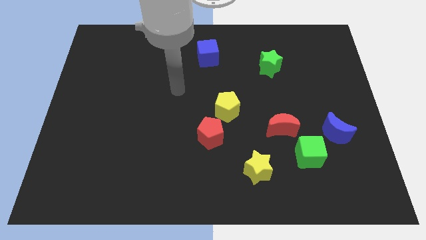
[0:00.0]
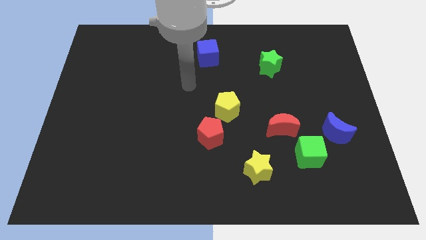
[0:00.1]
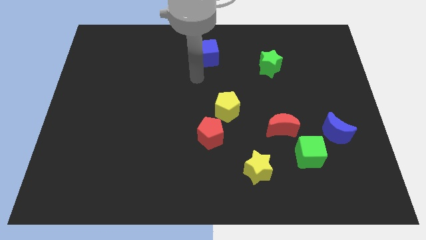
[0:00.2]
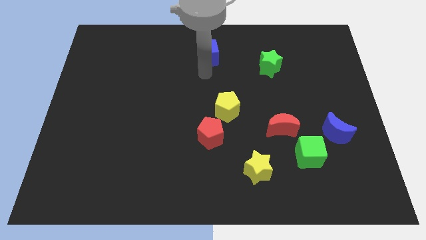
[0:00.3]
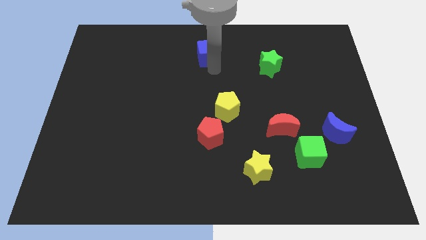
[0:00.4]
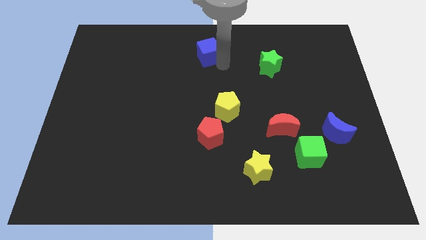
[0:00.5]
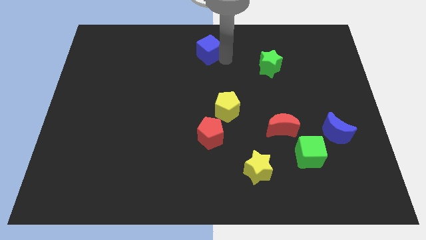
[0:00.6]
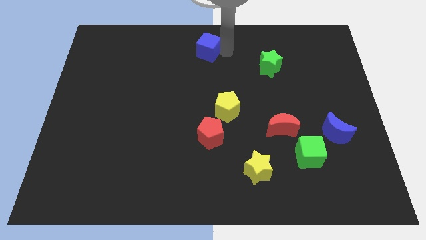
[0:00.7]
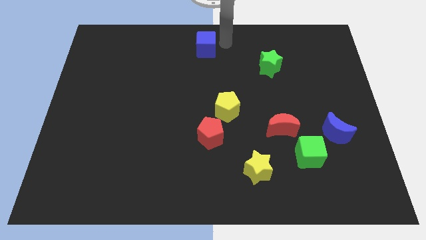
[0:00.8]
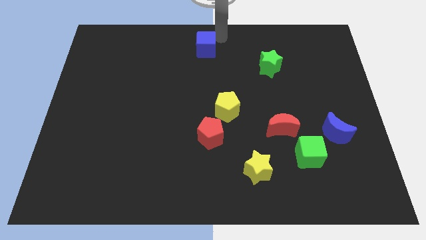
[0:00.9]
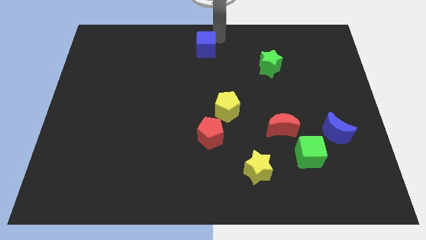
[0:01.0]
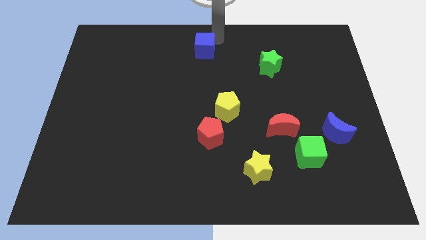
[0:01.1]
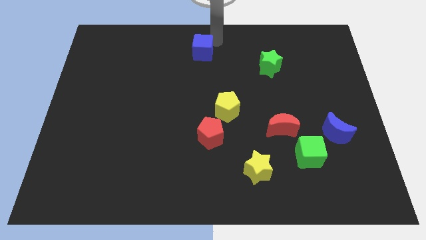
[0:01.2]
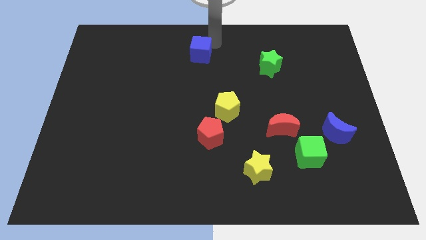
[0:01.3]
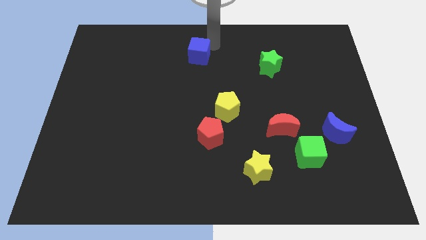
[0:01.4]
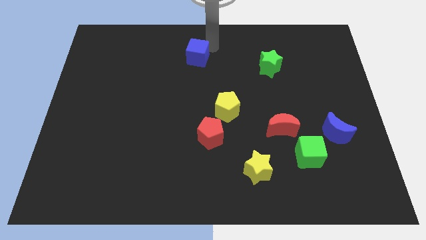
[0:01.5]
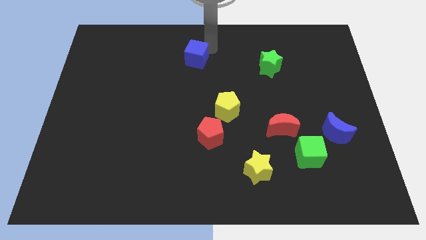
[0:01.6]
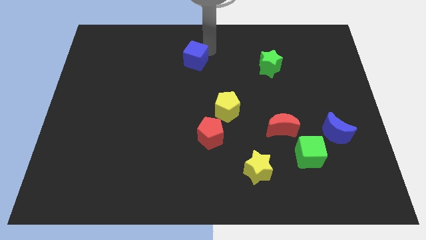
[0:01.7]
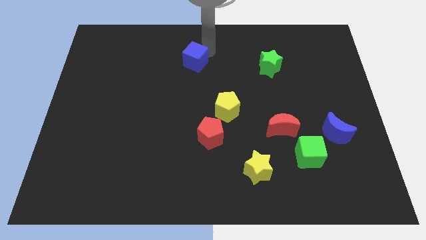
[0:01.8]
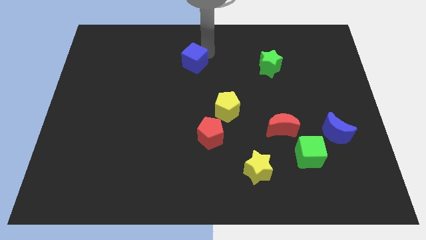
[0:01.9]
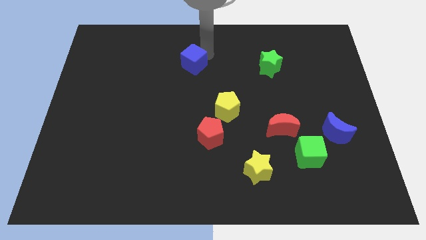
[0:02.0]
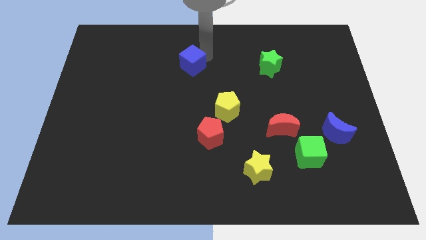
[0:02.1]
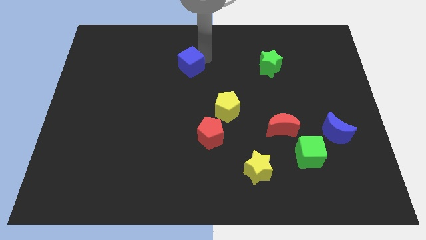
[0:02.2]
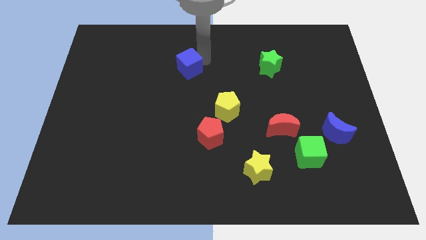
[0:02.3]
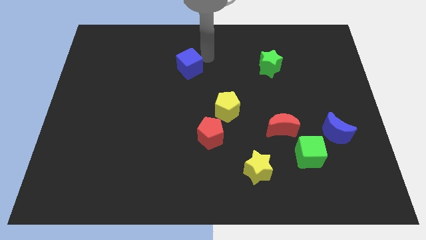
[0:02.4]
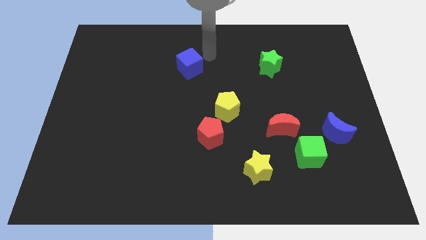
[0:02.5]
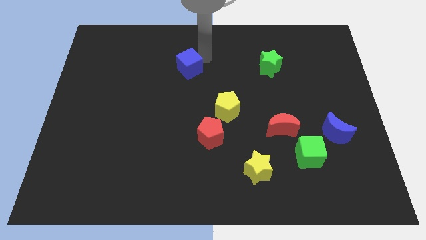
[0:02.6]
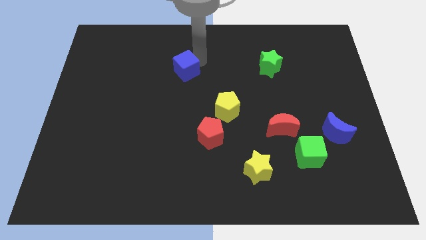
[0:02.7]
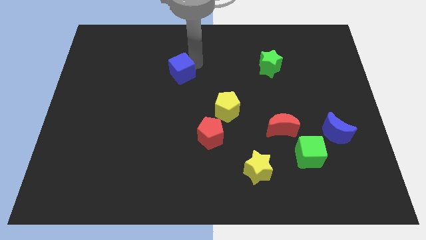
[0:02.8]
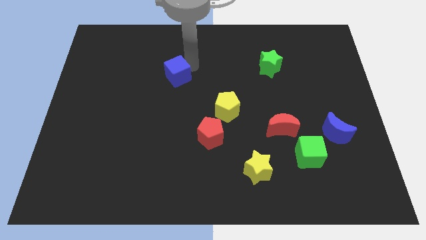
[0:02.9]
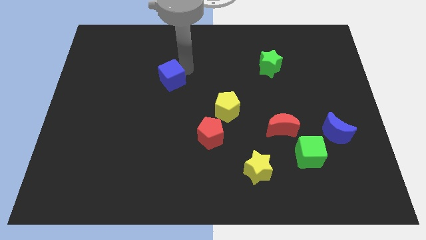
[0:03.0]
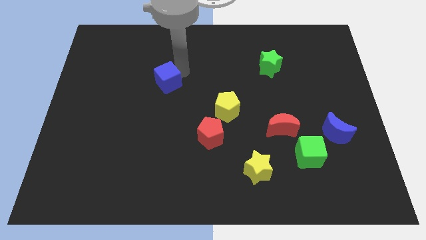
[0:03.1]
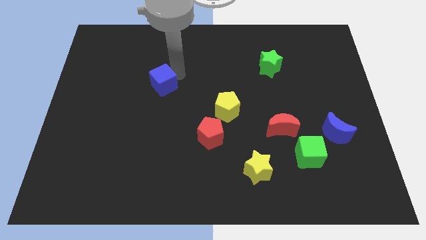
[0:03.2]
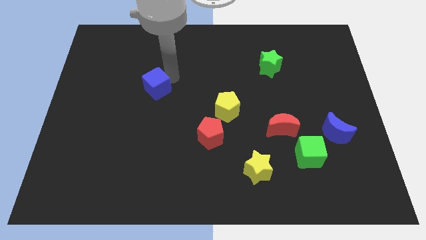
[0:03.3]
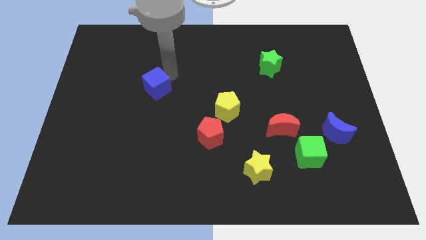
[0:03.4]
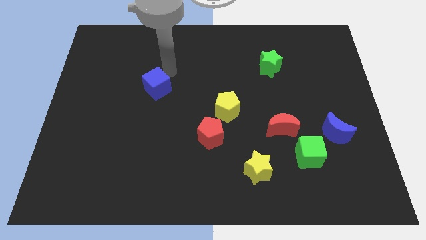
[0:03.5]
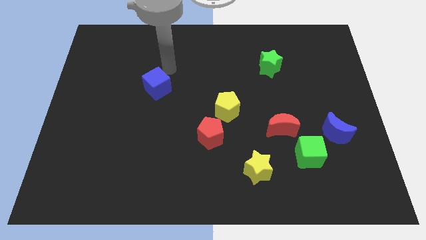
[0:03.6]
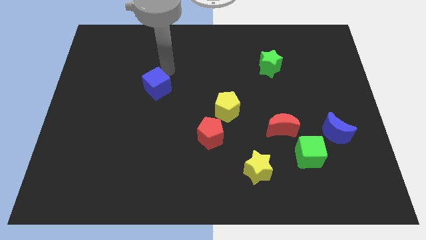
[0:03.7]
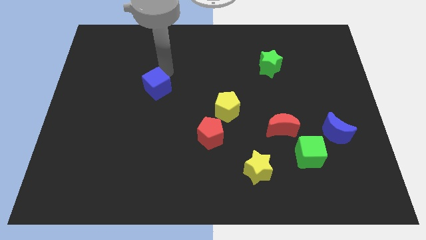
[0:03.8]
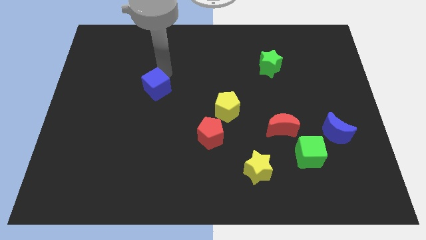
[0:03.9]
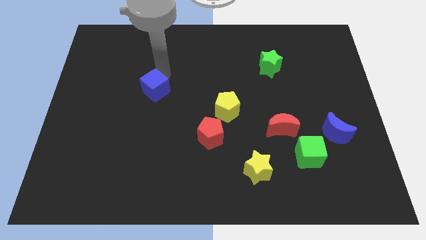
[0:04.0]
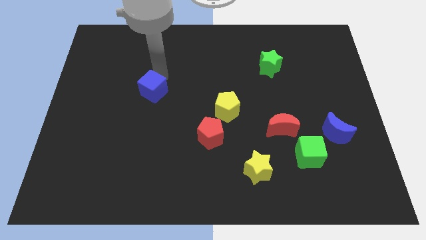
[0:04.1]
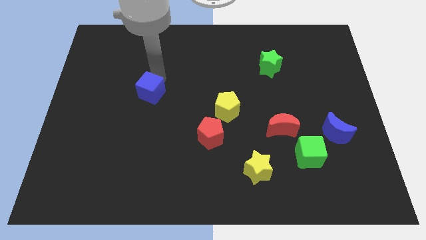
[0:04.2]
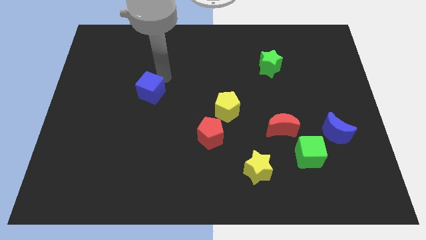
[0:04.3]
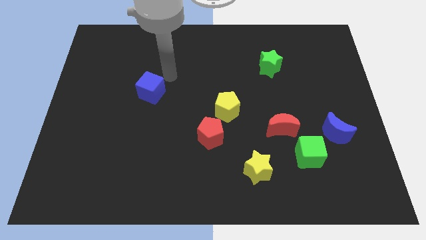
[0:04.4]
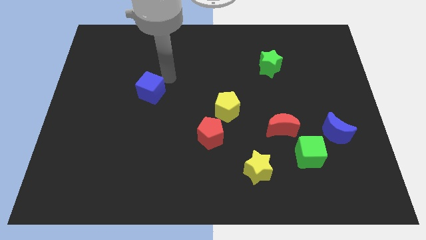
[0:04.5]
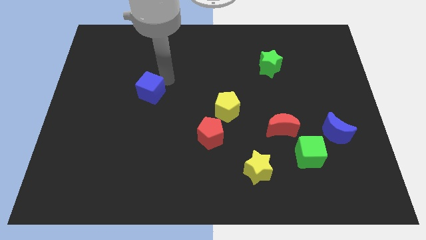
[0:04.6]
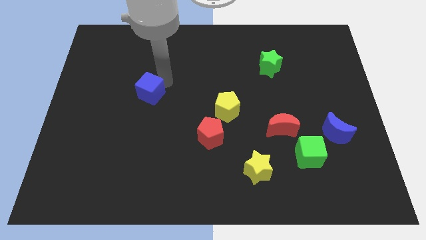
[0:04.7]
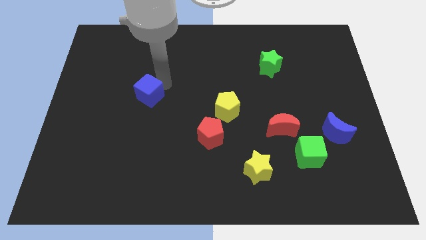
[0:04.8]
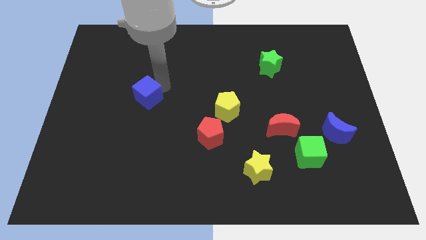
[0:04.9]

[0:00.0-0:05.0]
slide the blue cube diagonally down and to the left

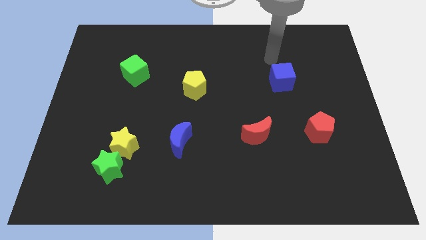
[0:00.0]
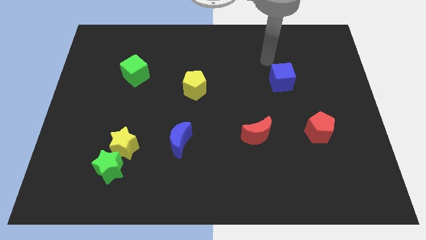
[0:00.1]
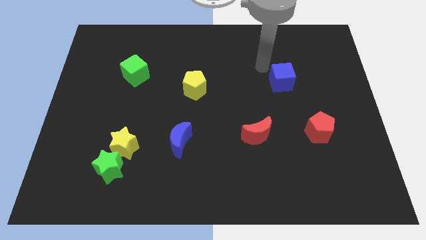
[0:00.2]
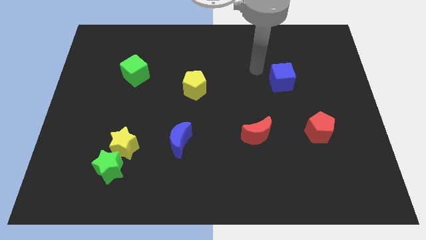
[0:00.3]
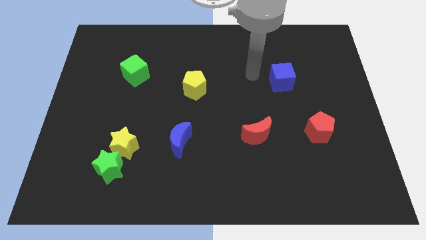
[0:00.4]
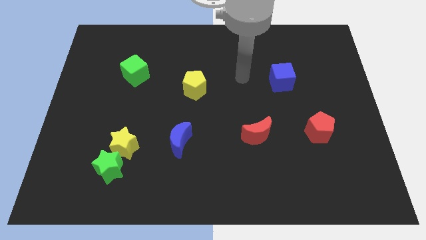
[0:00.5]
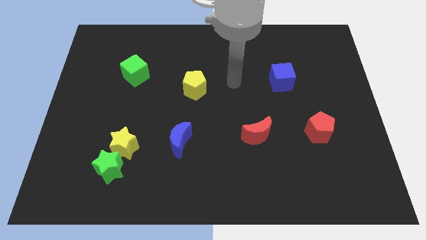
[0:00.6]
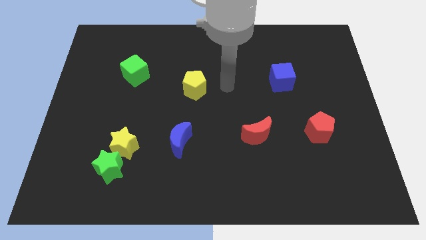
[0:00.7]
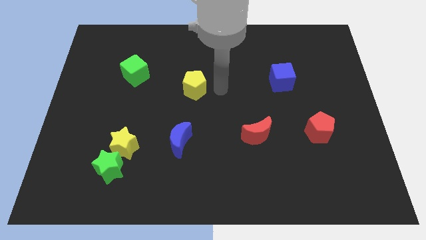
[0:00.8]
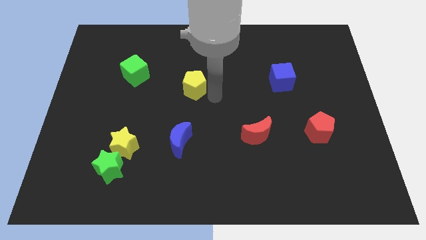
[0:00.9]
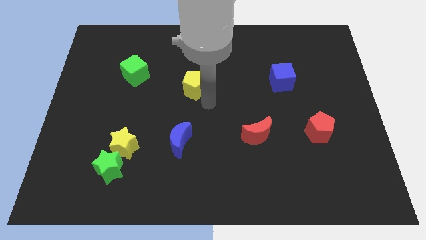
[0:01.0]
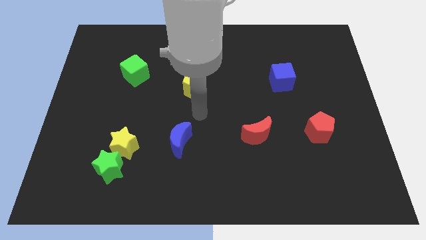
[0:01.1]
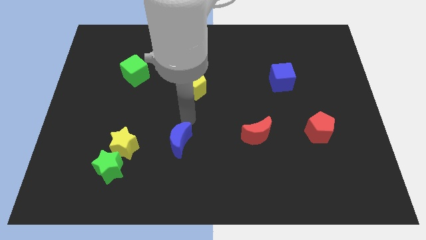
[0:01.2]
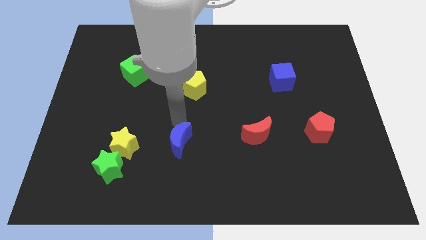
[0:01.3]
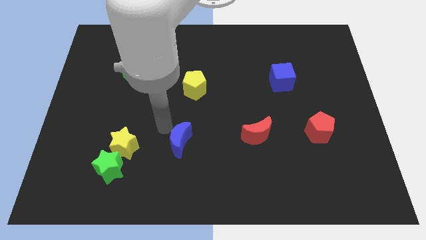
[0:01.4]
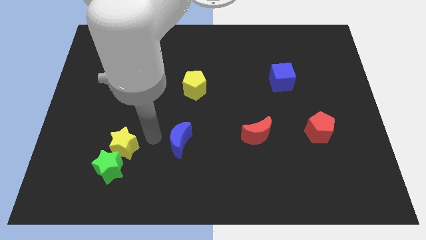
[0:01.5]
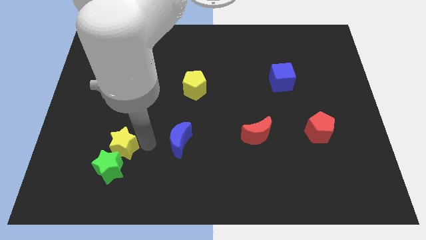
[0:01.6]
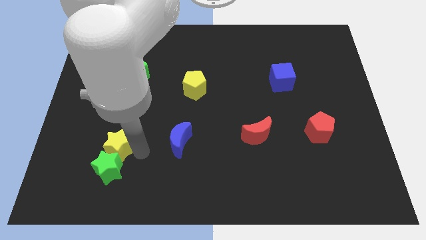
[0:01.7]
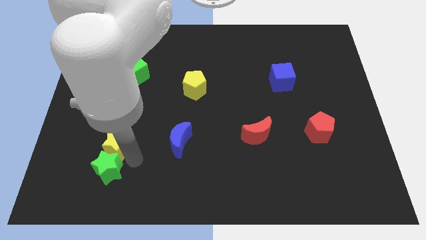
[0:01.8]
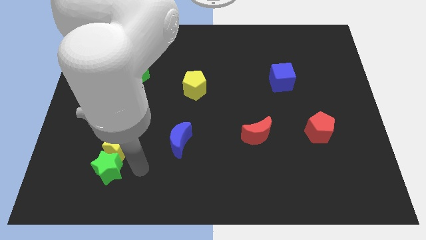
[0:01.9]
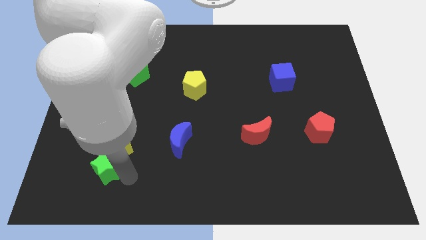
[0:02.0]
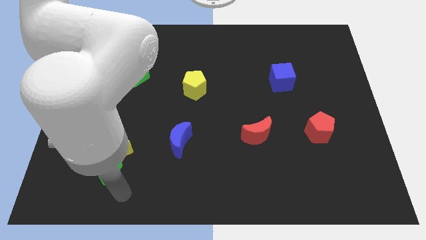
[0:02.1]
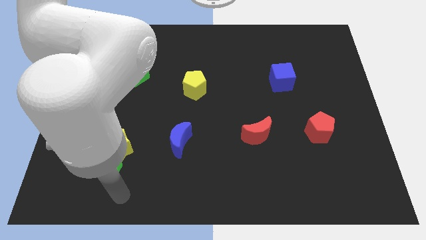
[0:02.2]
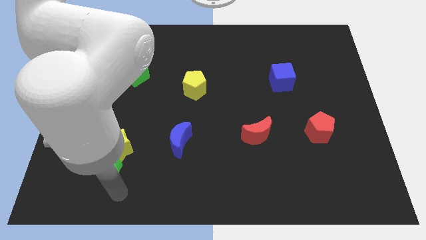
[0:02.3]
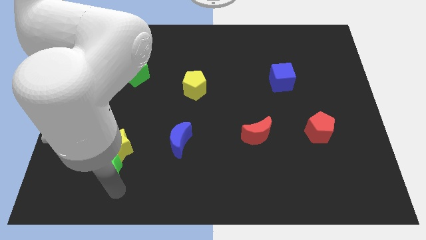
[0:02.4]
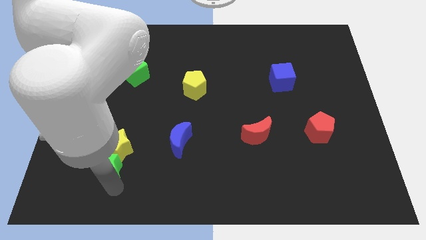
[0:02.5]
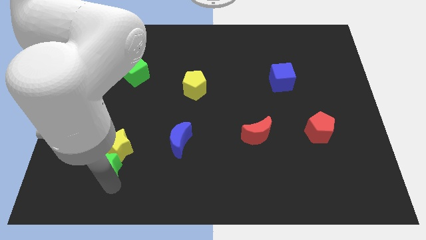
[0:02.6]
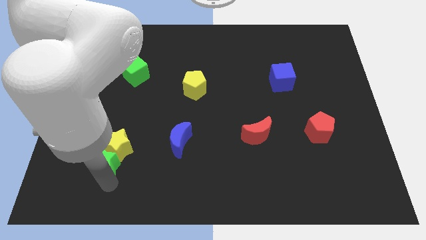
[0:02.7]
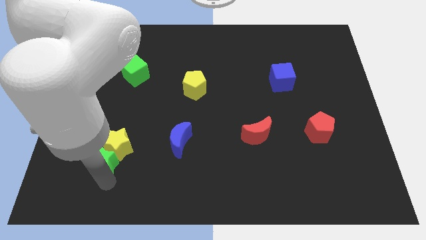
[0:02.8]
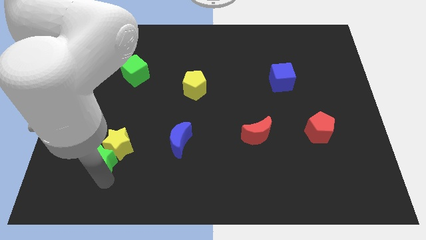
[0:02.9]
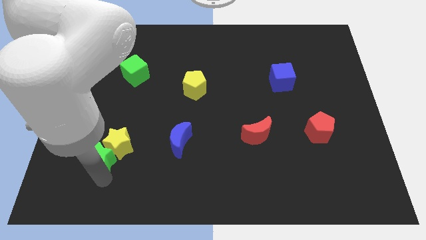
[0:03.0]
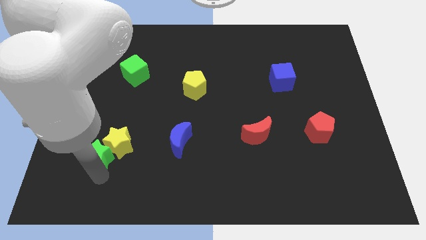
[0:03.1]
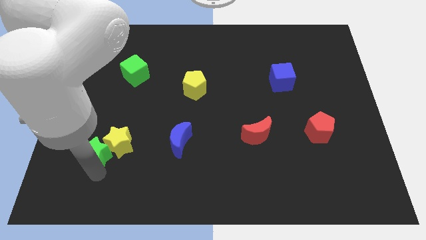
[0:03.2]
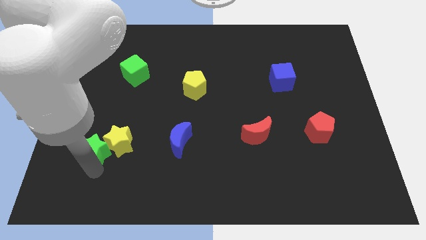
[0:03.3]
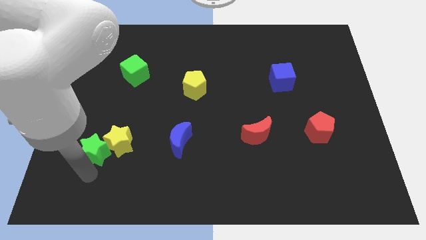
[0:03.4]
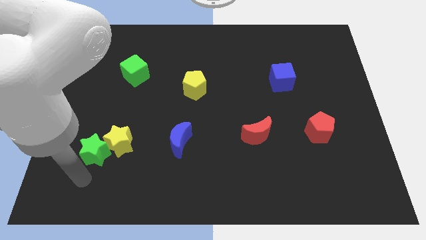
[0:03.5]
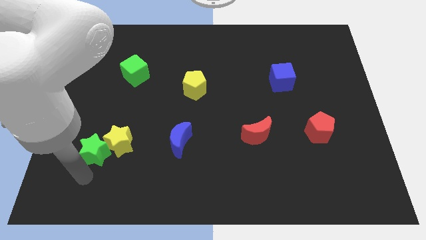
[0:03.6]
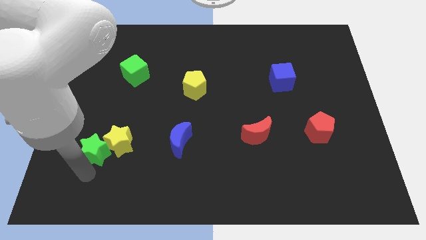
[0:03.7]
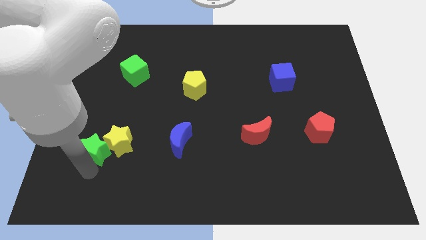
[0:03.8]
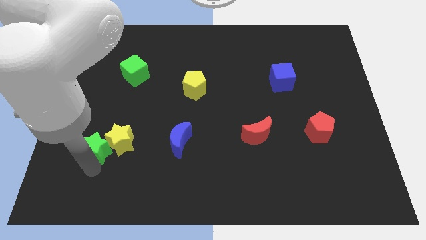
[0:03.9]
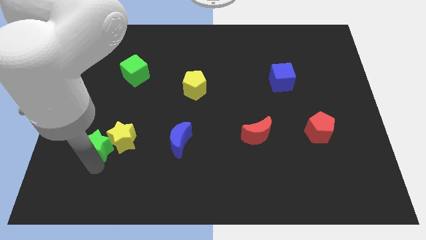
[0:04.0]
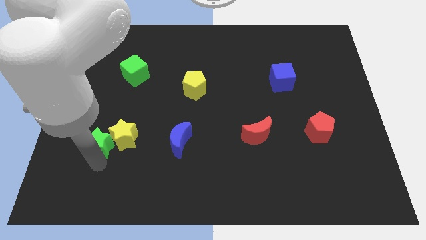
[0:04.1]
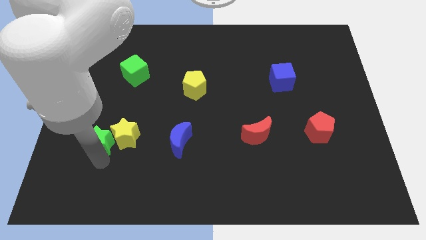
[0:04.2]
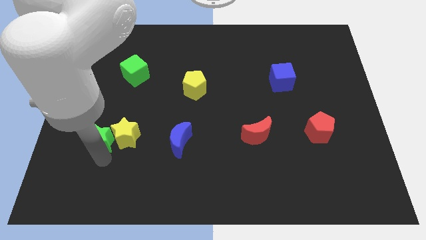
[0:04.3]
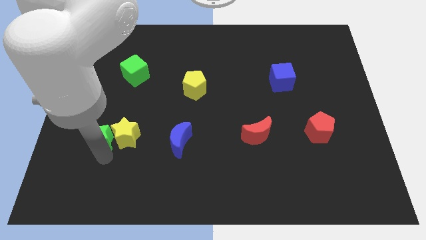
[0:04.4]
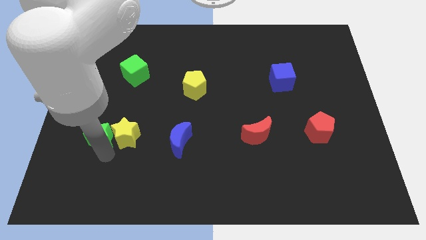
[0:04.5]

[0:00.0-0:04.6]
slightly slide the green star up
